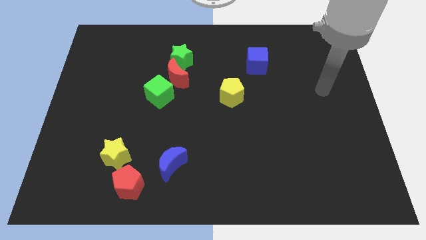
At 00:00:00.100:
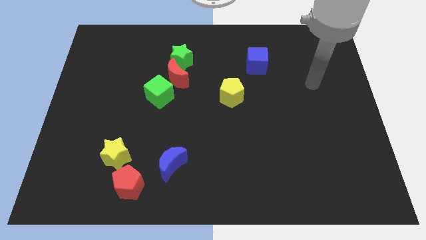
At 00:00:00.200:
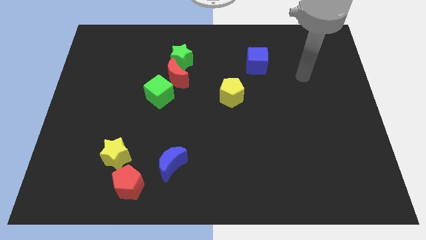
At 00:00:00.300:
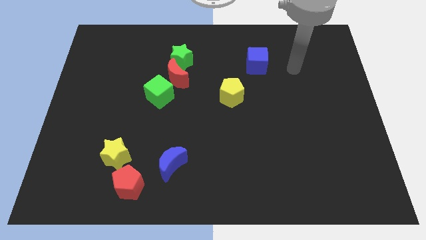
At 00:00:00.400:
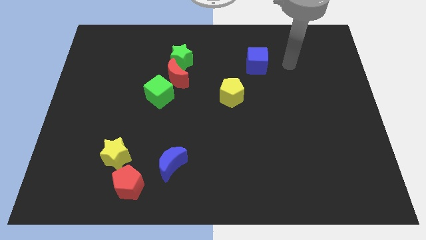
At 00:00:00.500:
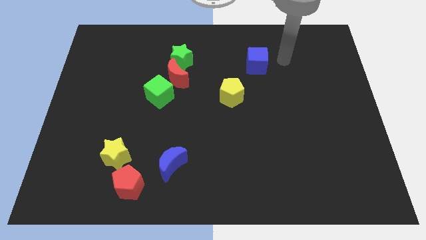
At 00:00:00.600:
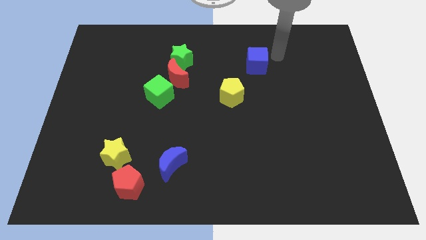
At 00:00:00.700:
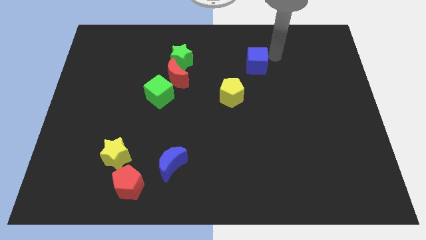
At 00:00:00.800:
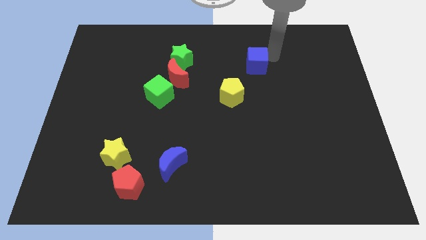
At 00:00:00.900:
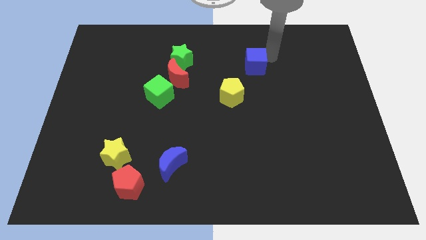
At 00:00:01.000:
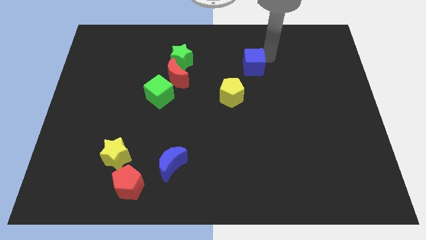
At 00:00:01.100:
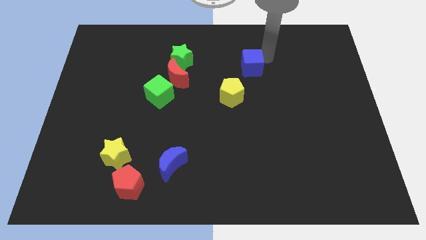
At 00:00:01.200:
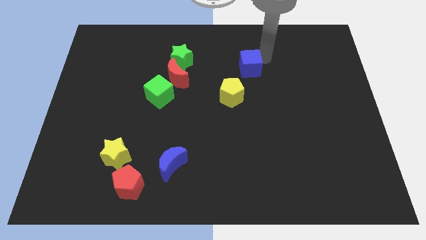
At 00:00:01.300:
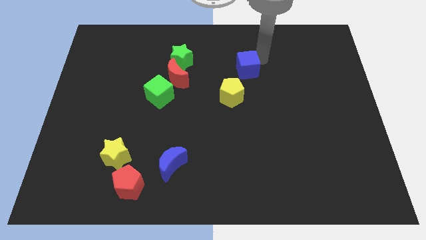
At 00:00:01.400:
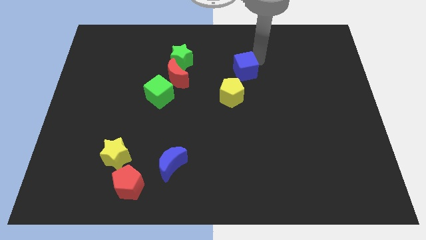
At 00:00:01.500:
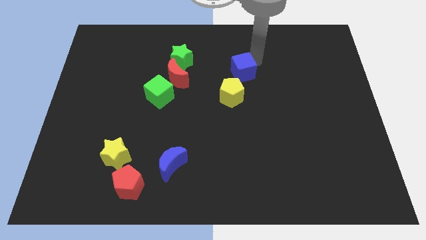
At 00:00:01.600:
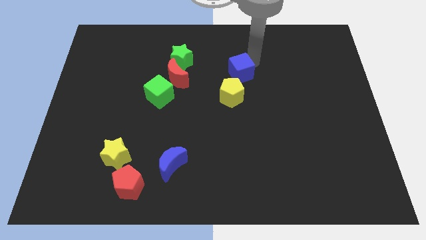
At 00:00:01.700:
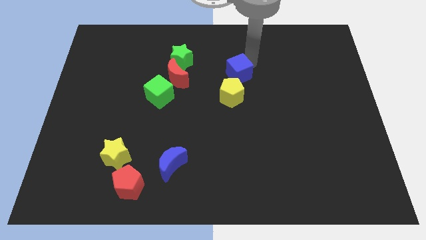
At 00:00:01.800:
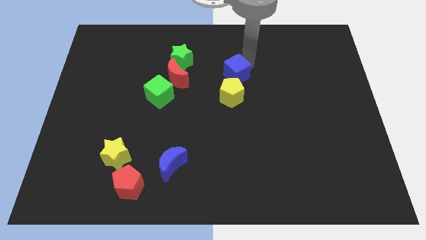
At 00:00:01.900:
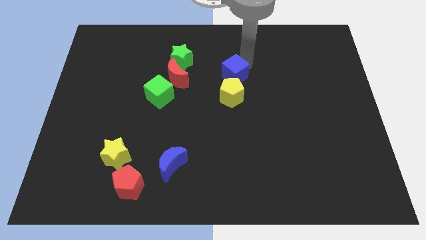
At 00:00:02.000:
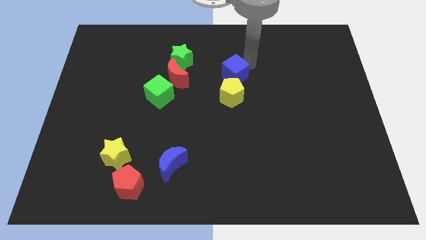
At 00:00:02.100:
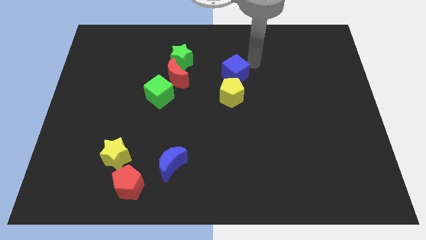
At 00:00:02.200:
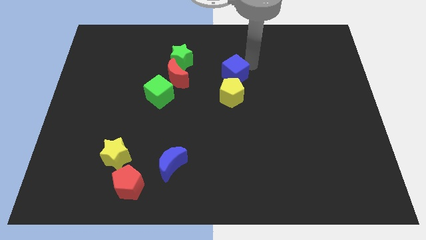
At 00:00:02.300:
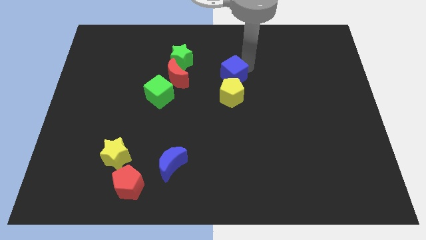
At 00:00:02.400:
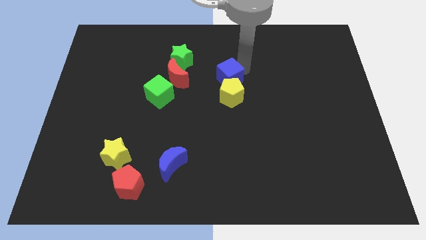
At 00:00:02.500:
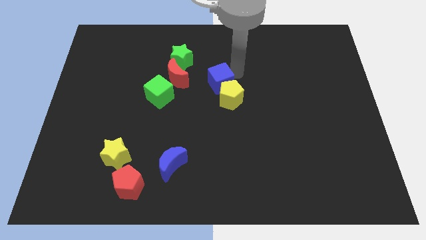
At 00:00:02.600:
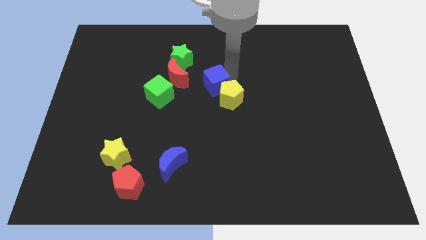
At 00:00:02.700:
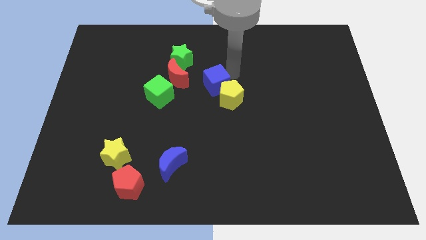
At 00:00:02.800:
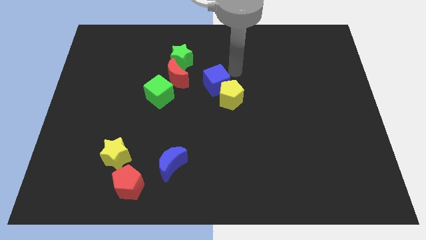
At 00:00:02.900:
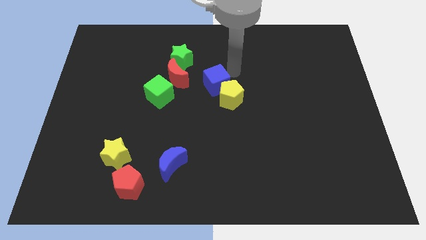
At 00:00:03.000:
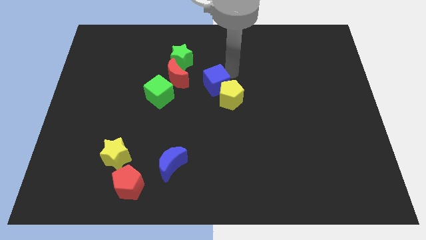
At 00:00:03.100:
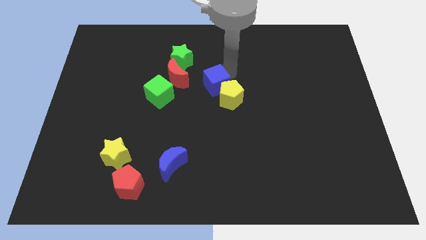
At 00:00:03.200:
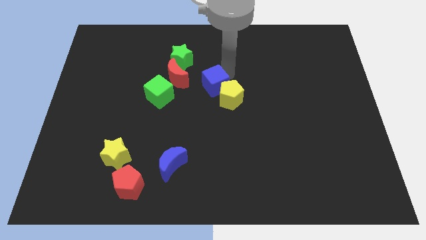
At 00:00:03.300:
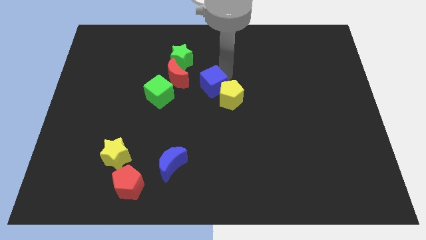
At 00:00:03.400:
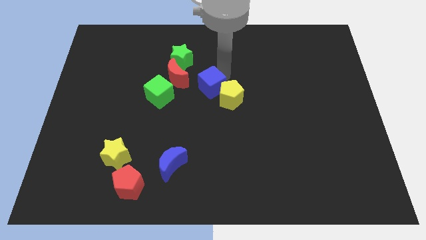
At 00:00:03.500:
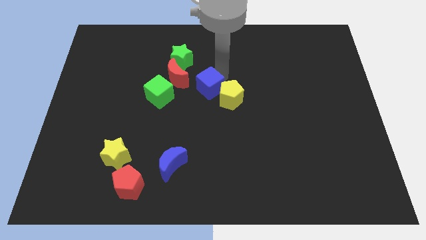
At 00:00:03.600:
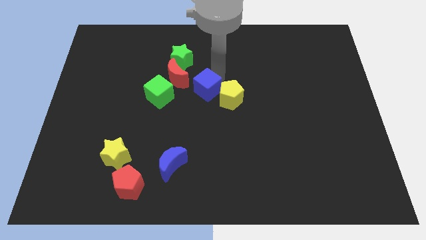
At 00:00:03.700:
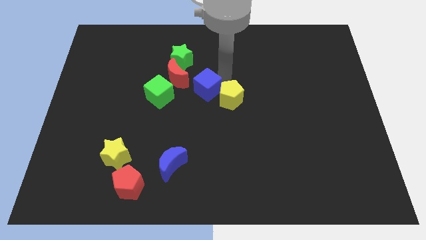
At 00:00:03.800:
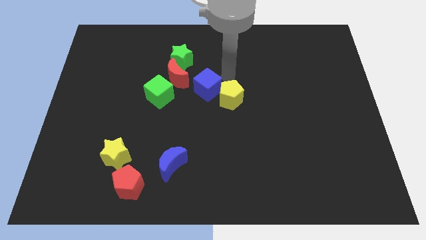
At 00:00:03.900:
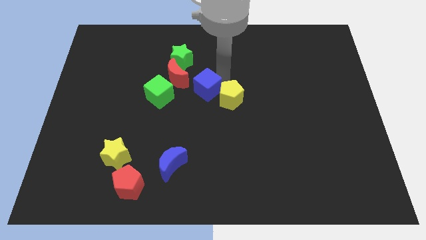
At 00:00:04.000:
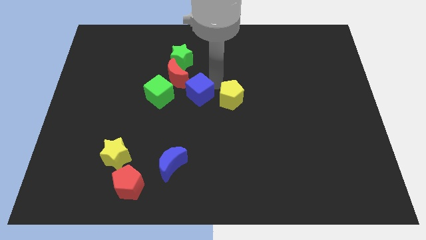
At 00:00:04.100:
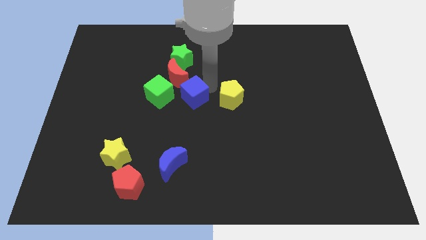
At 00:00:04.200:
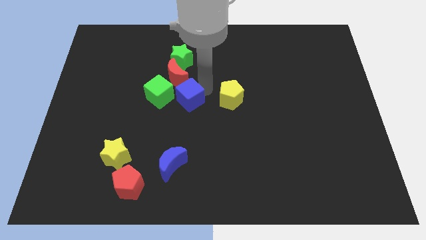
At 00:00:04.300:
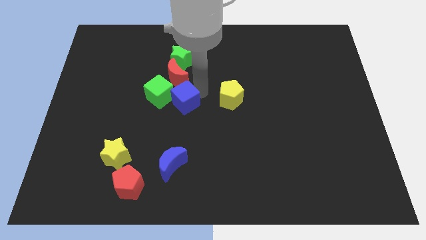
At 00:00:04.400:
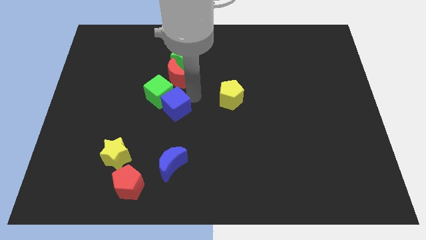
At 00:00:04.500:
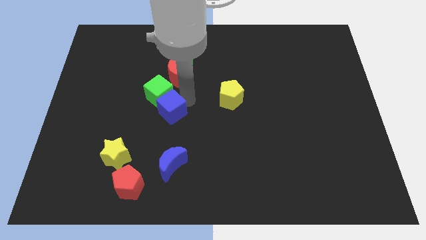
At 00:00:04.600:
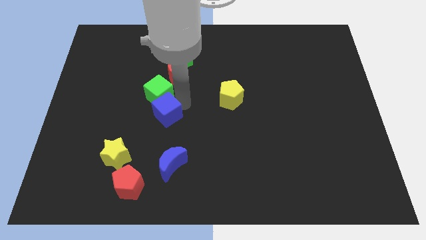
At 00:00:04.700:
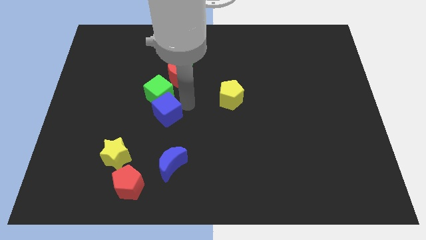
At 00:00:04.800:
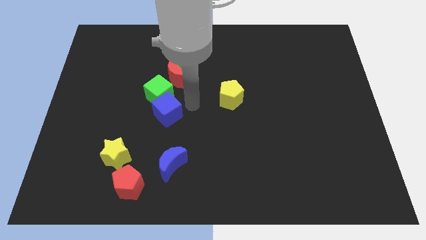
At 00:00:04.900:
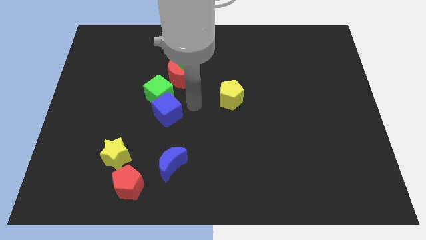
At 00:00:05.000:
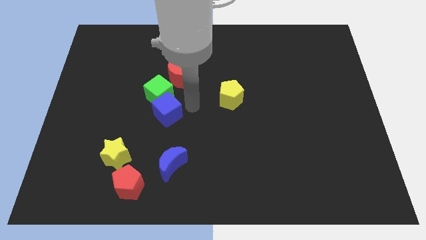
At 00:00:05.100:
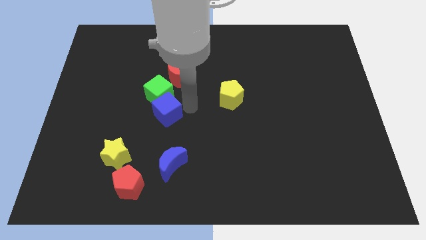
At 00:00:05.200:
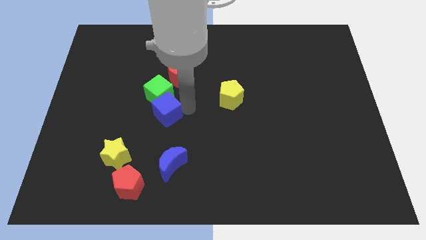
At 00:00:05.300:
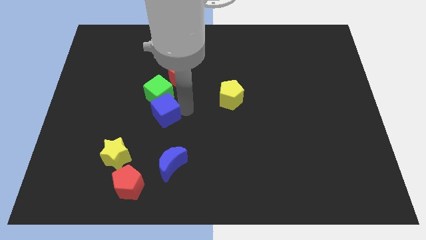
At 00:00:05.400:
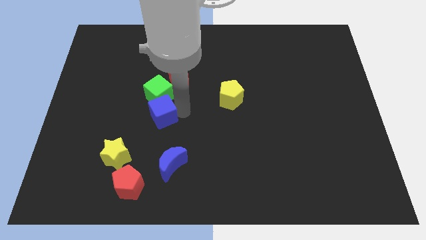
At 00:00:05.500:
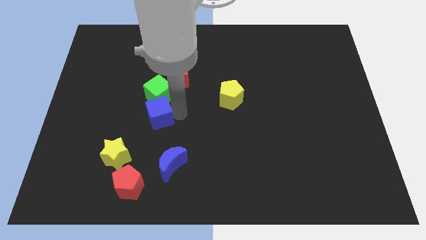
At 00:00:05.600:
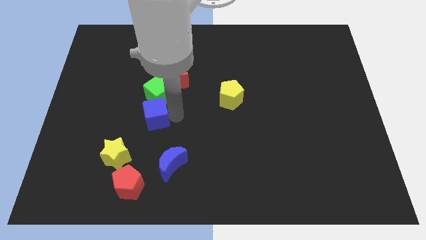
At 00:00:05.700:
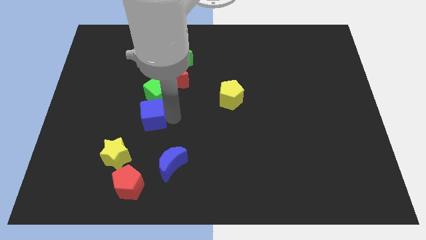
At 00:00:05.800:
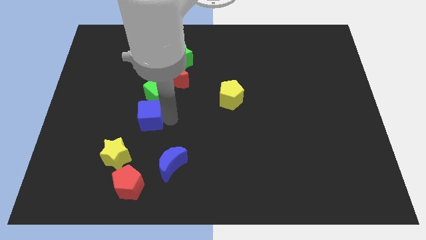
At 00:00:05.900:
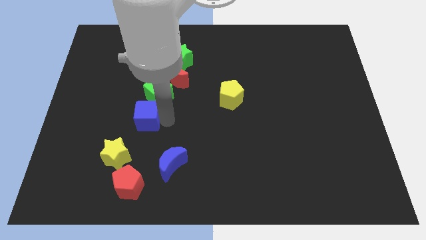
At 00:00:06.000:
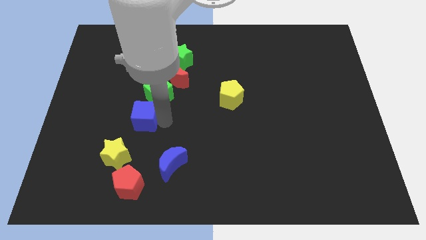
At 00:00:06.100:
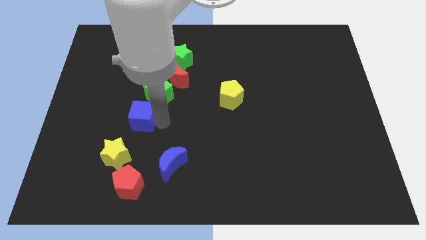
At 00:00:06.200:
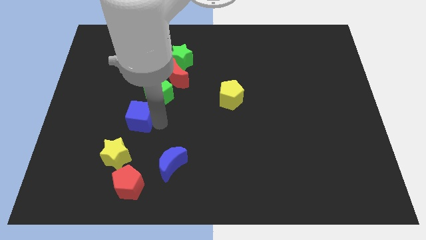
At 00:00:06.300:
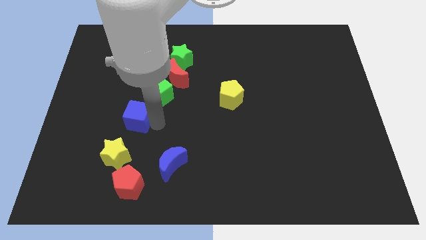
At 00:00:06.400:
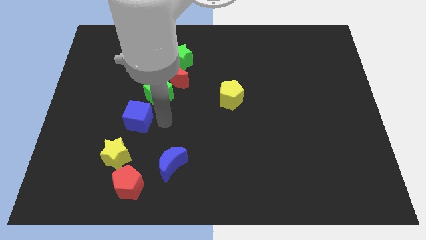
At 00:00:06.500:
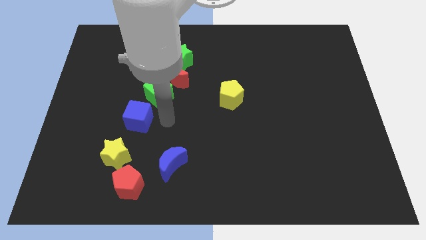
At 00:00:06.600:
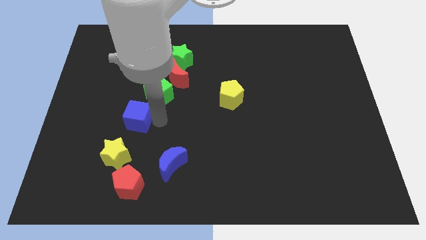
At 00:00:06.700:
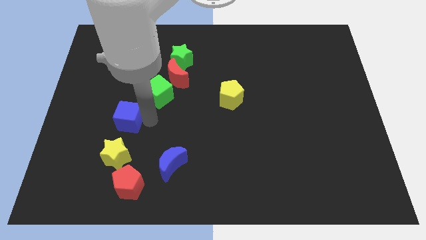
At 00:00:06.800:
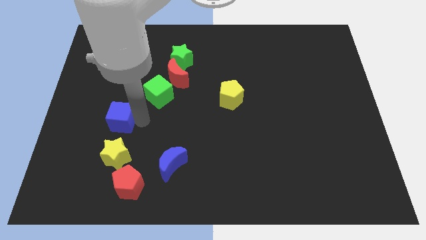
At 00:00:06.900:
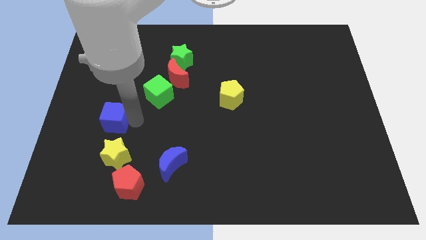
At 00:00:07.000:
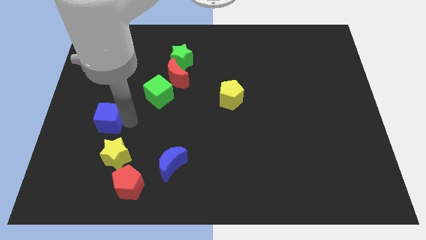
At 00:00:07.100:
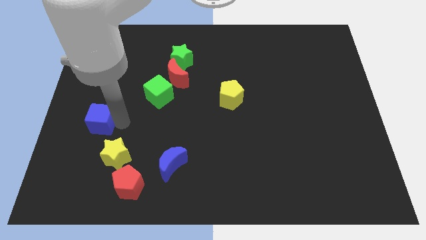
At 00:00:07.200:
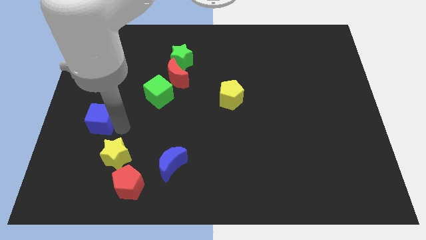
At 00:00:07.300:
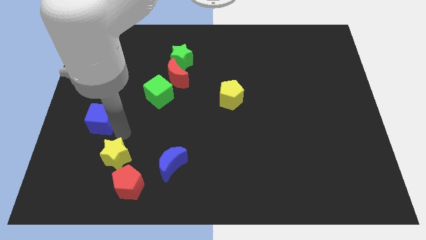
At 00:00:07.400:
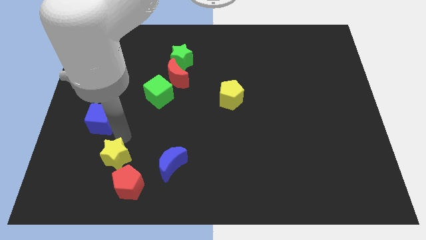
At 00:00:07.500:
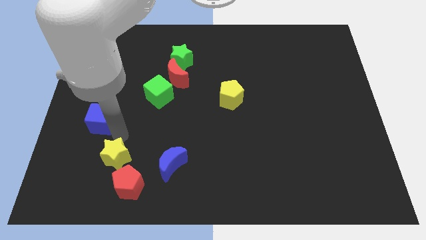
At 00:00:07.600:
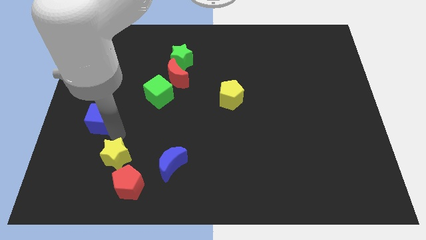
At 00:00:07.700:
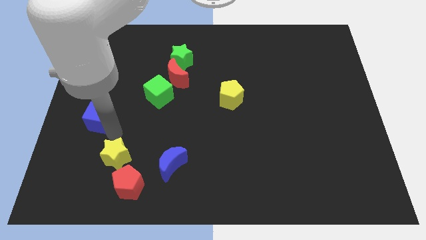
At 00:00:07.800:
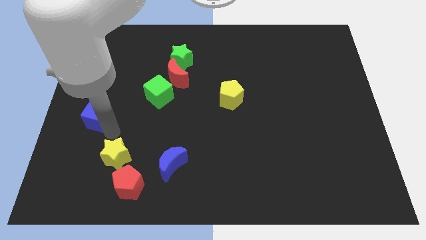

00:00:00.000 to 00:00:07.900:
slide the blue cube to the left side of the board
